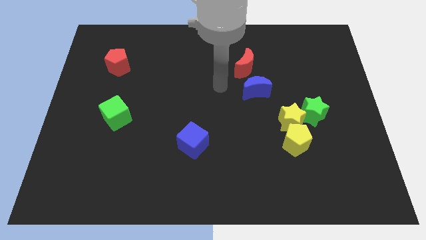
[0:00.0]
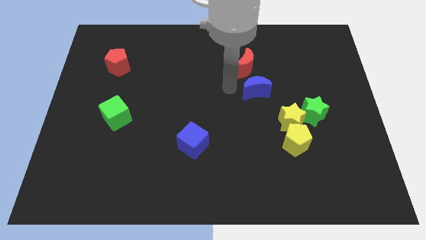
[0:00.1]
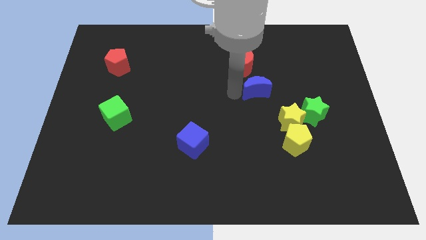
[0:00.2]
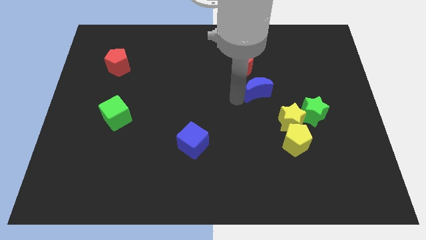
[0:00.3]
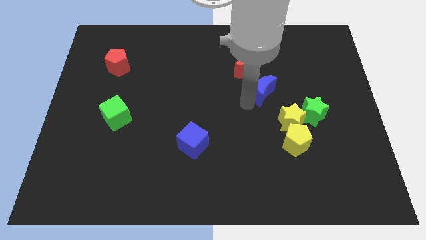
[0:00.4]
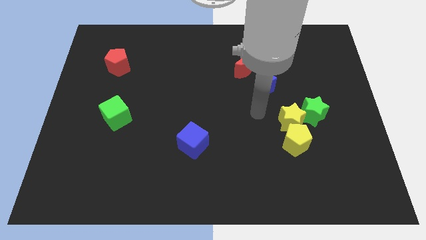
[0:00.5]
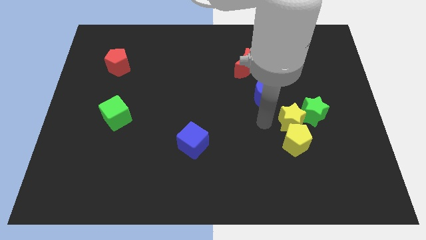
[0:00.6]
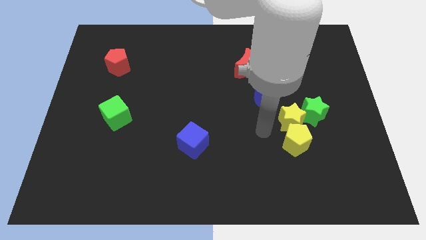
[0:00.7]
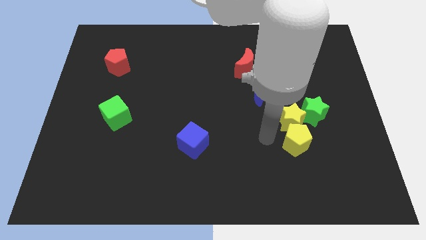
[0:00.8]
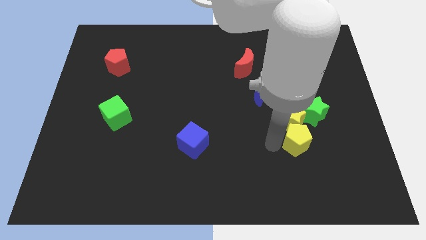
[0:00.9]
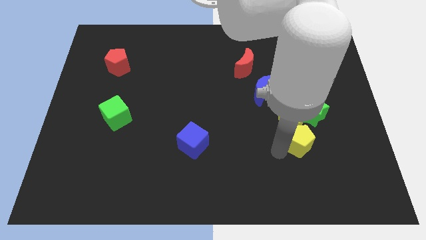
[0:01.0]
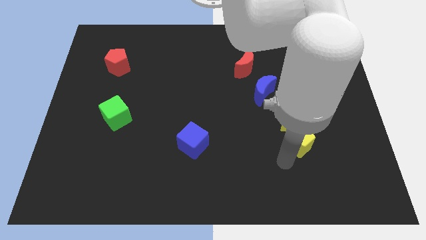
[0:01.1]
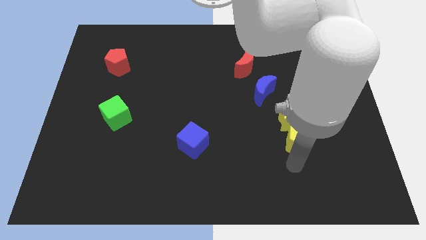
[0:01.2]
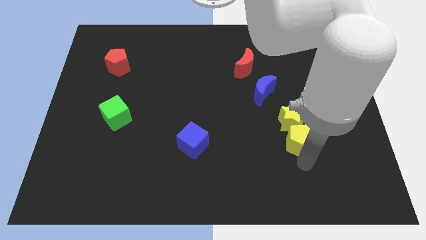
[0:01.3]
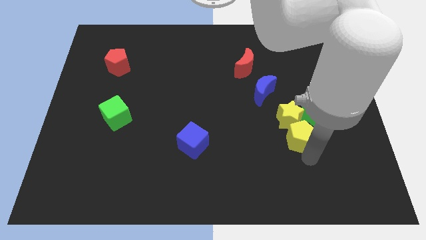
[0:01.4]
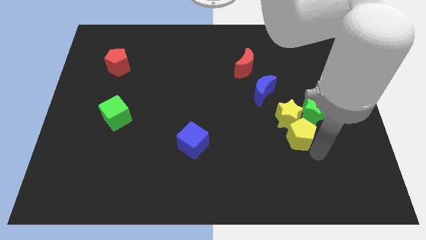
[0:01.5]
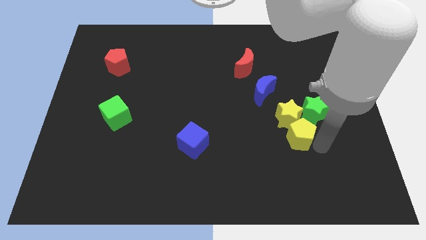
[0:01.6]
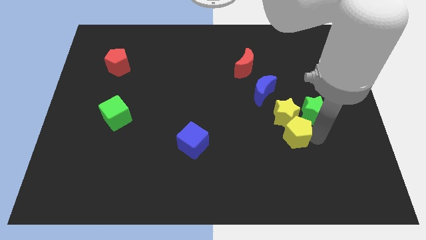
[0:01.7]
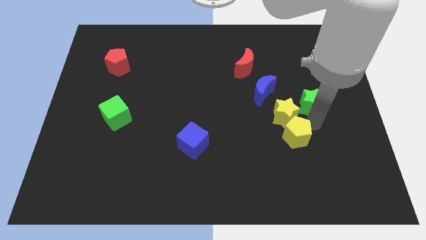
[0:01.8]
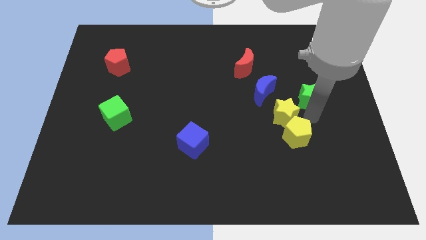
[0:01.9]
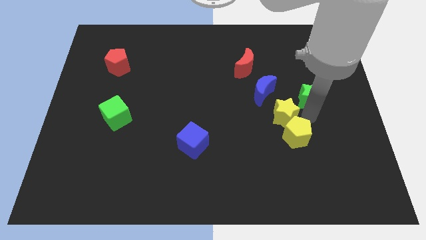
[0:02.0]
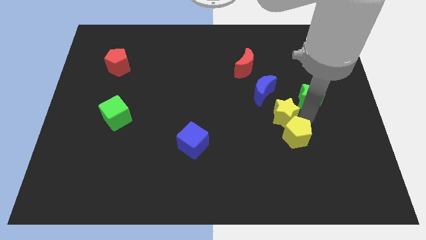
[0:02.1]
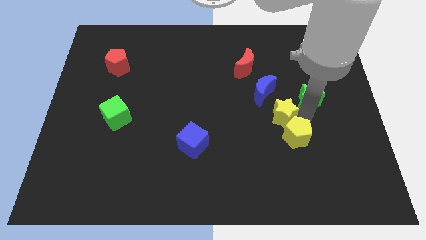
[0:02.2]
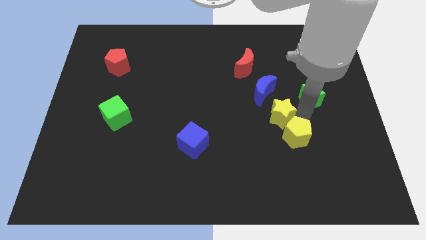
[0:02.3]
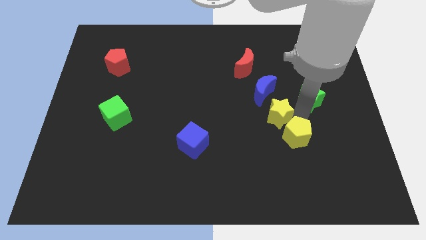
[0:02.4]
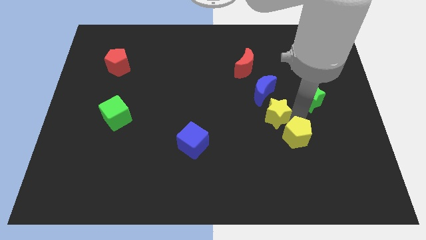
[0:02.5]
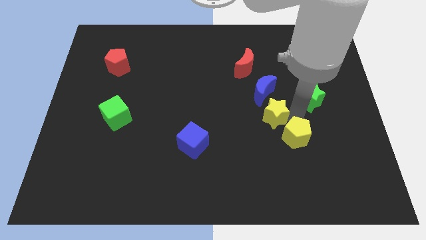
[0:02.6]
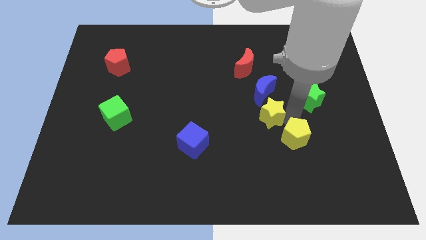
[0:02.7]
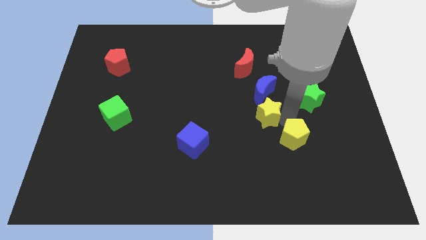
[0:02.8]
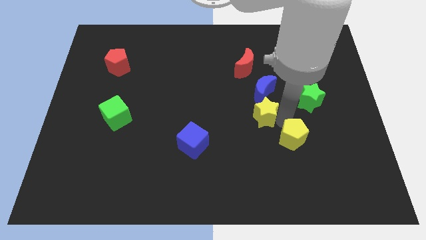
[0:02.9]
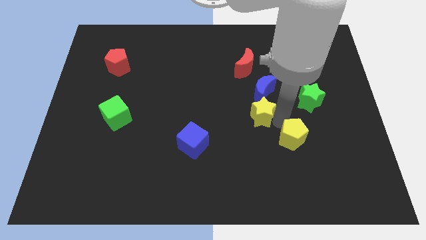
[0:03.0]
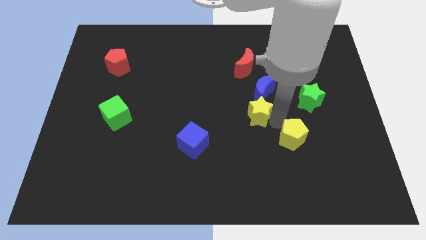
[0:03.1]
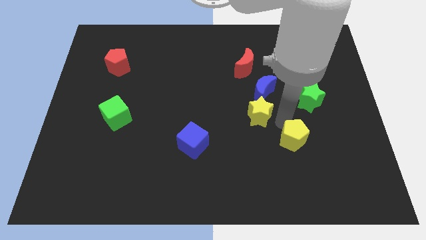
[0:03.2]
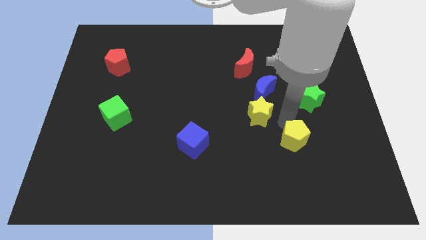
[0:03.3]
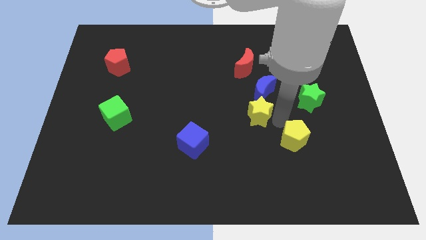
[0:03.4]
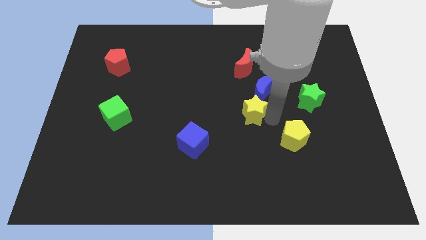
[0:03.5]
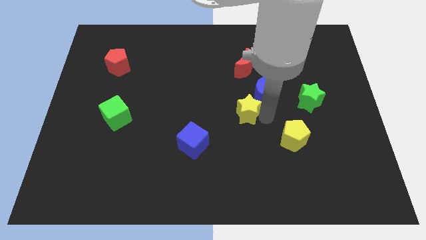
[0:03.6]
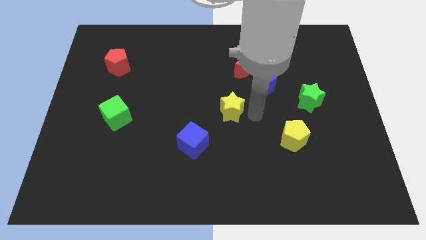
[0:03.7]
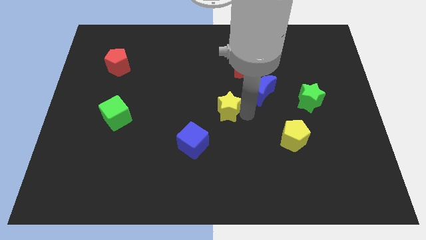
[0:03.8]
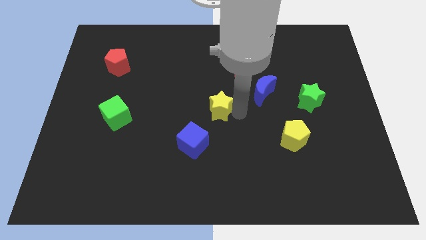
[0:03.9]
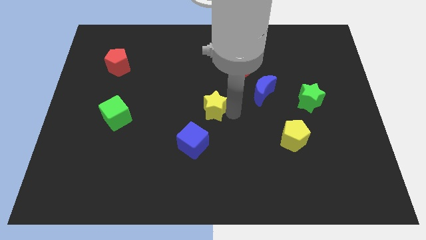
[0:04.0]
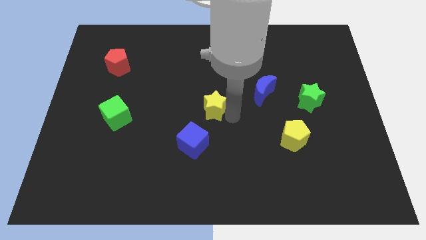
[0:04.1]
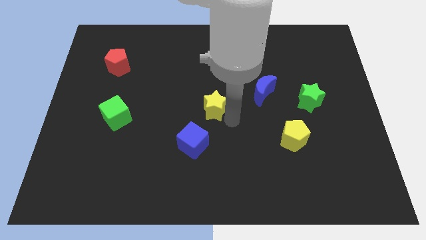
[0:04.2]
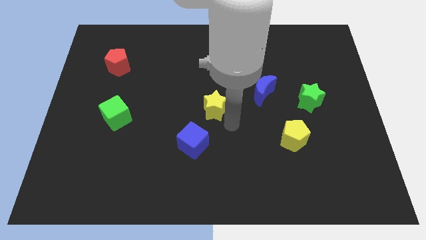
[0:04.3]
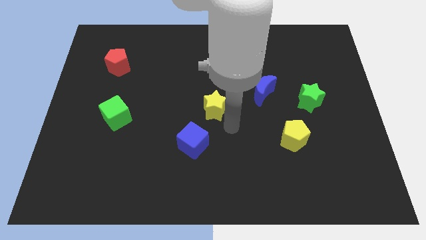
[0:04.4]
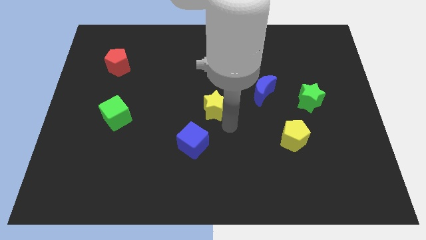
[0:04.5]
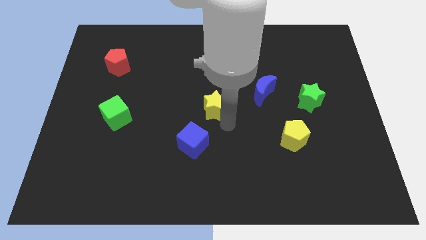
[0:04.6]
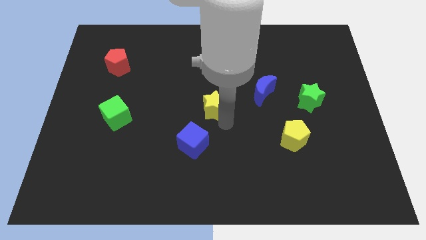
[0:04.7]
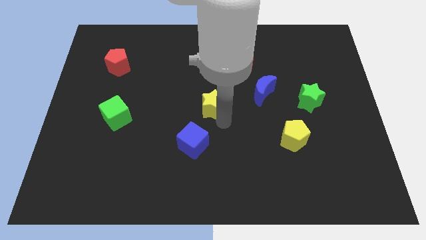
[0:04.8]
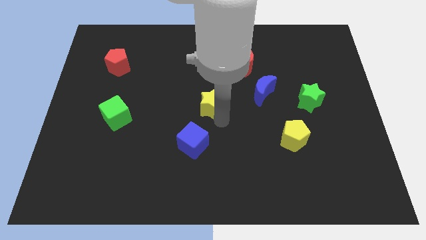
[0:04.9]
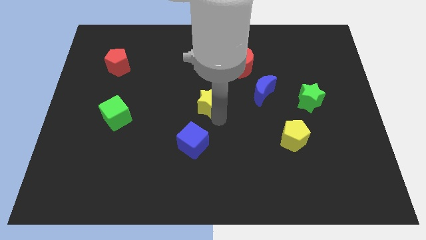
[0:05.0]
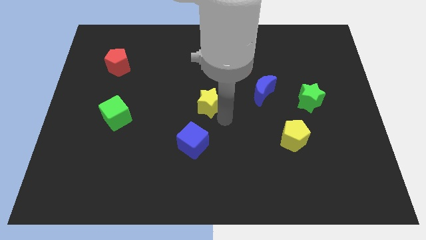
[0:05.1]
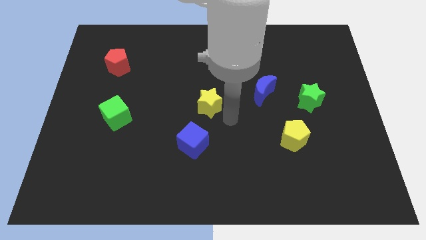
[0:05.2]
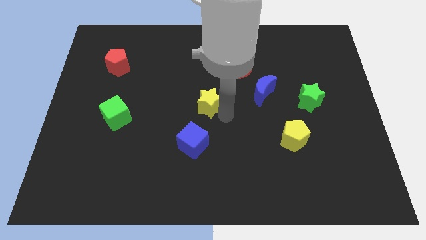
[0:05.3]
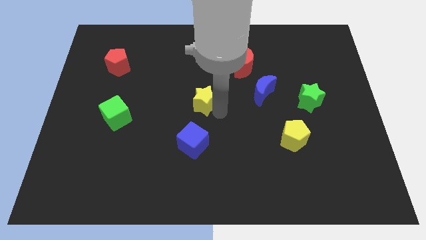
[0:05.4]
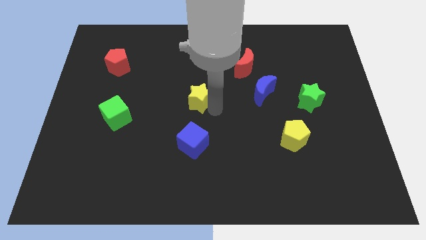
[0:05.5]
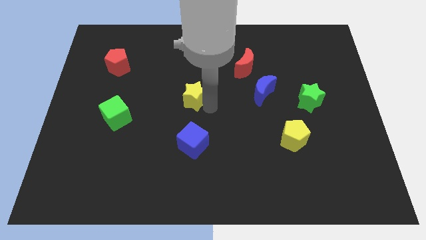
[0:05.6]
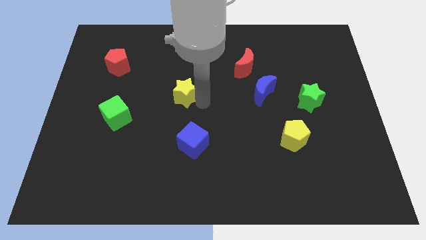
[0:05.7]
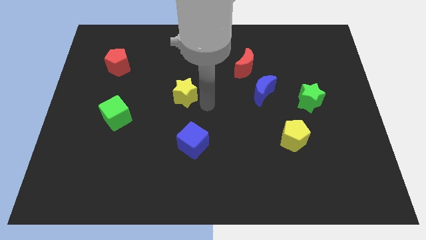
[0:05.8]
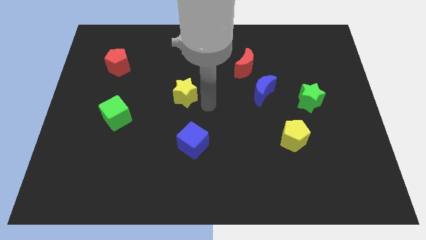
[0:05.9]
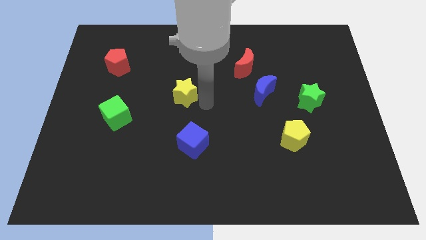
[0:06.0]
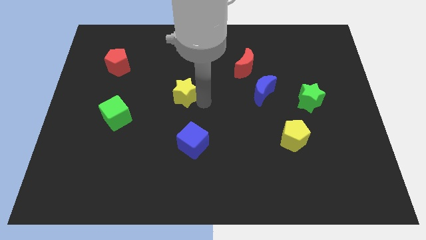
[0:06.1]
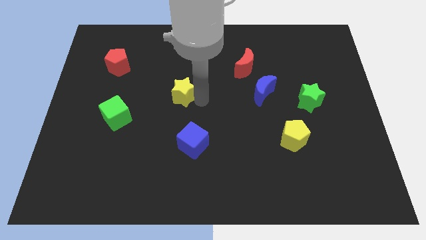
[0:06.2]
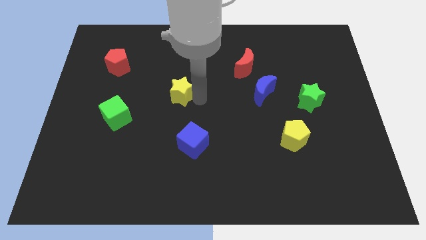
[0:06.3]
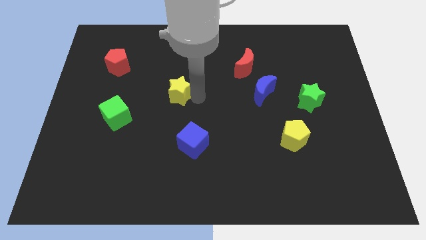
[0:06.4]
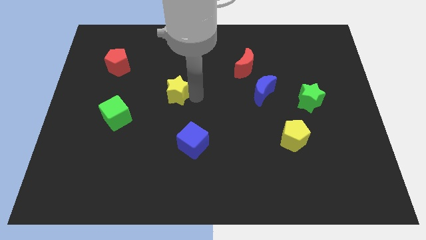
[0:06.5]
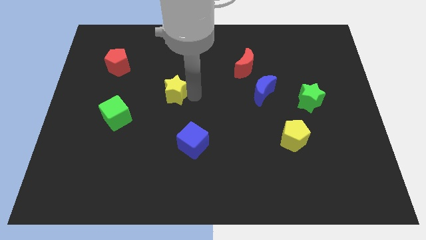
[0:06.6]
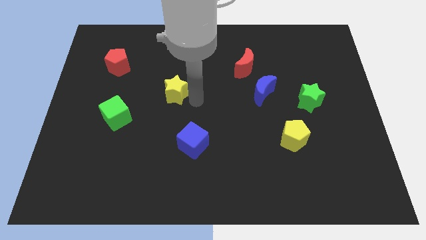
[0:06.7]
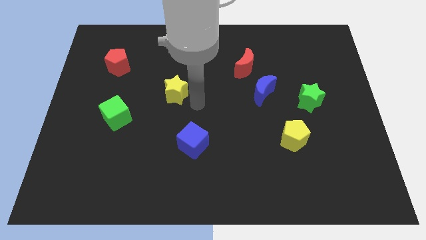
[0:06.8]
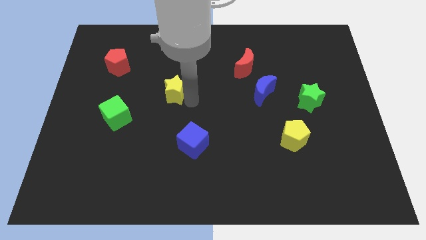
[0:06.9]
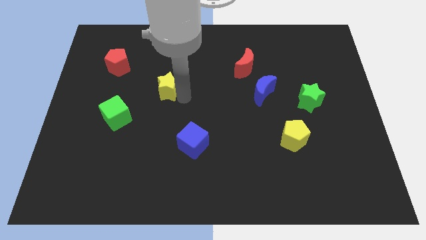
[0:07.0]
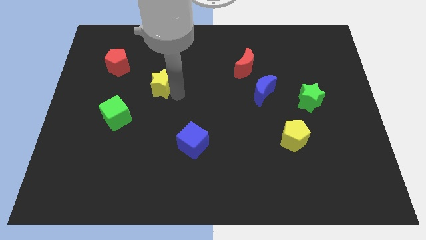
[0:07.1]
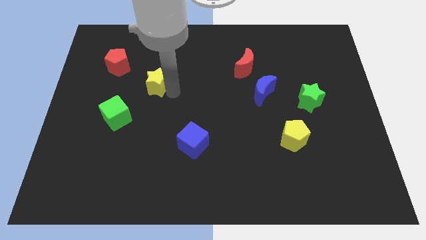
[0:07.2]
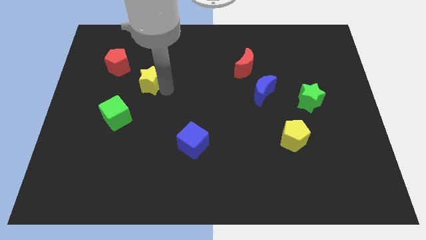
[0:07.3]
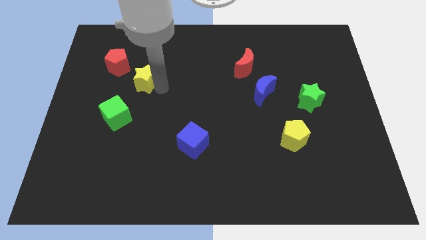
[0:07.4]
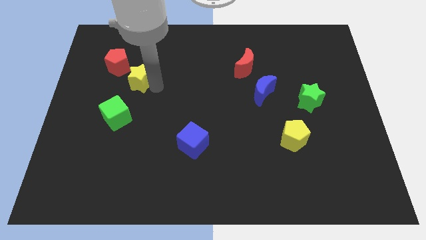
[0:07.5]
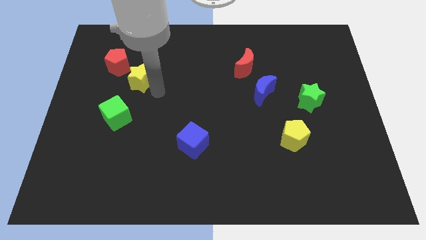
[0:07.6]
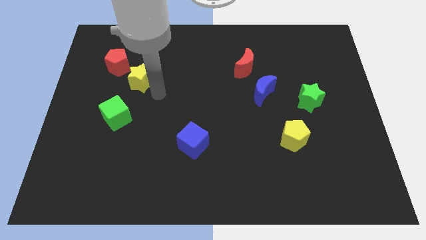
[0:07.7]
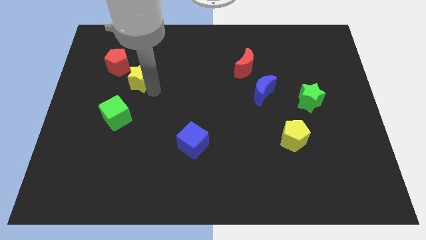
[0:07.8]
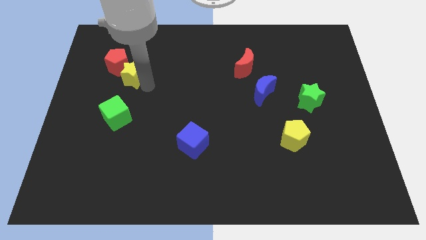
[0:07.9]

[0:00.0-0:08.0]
push the yellow star close to the red pentagon

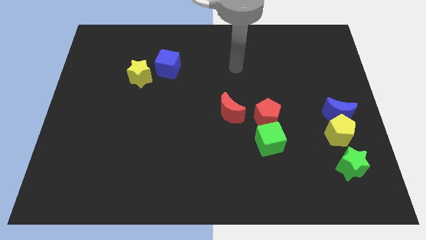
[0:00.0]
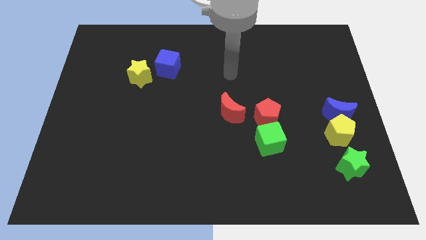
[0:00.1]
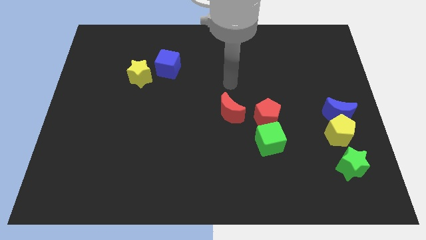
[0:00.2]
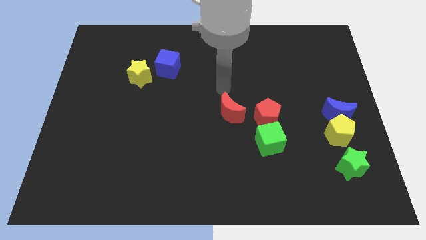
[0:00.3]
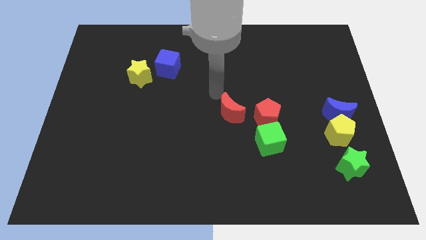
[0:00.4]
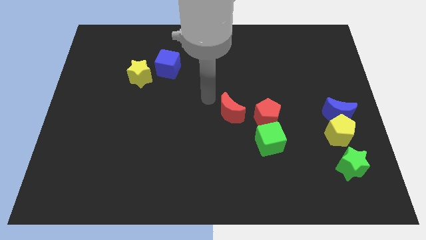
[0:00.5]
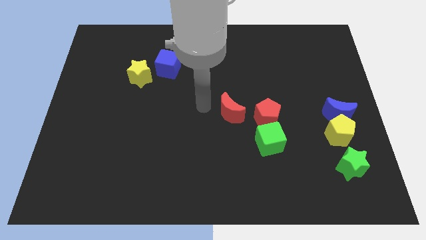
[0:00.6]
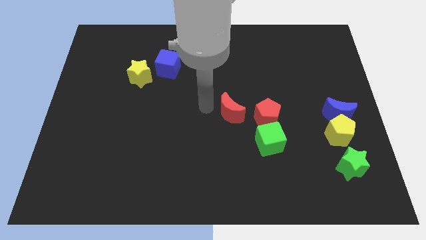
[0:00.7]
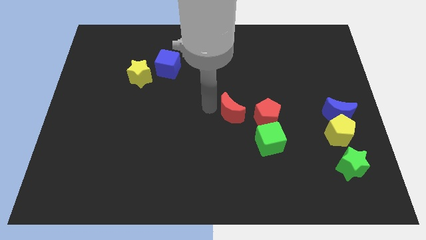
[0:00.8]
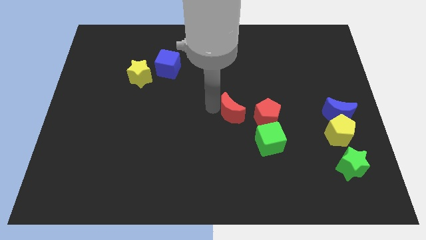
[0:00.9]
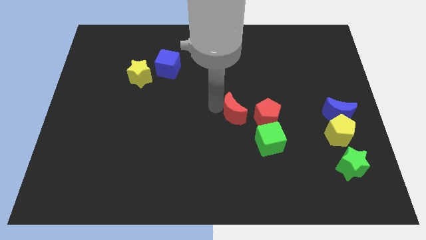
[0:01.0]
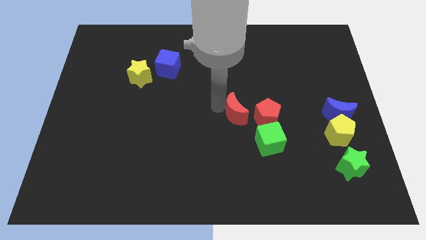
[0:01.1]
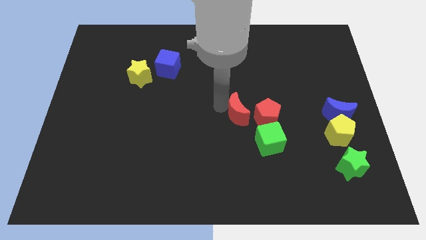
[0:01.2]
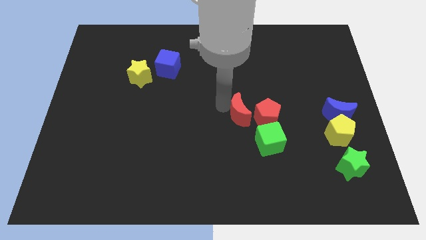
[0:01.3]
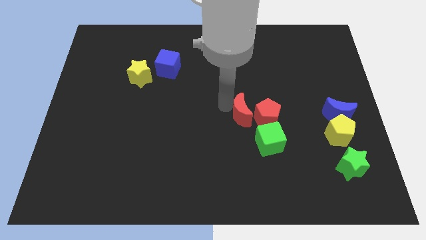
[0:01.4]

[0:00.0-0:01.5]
push the red moon to the red pentagon
